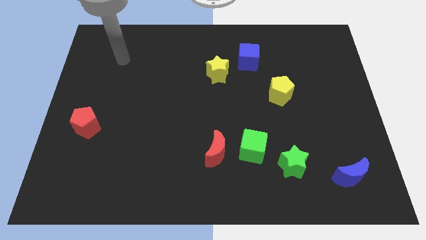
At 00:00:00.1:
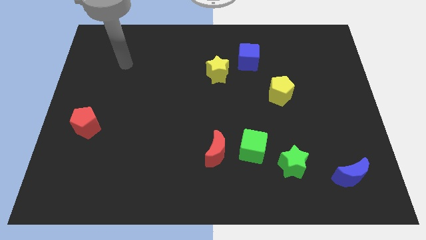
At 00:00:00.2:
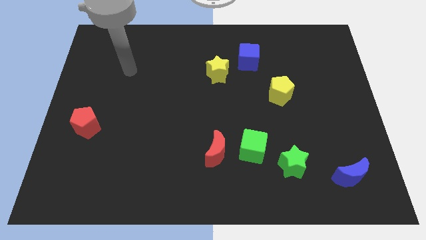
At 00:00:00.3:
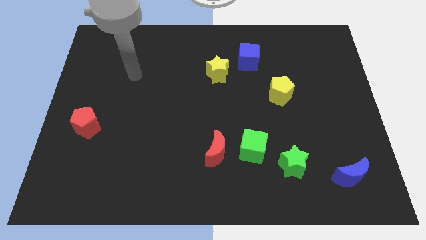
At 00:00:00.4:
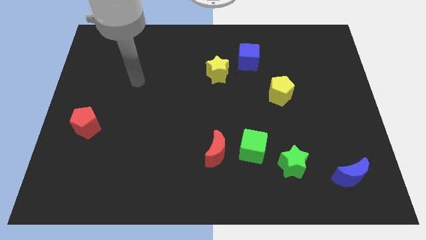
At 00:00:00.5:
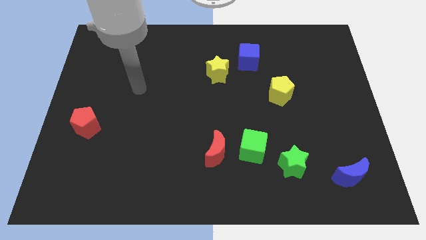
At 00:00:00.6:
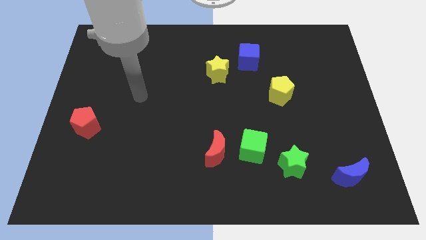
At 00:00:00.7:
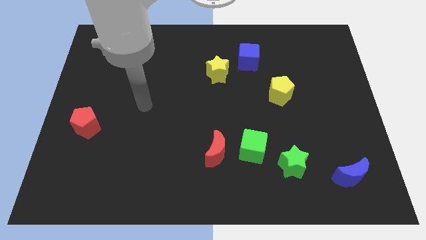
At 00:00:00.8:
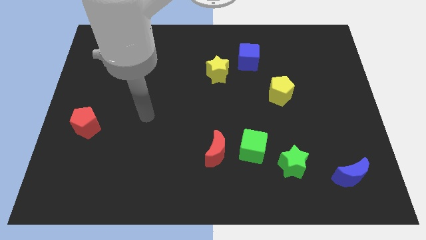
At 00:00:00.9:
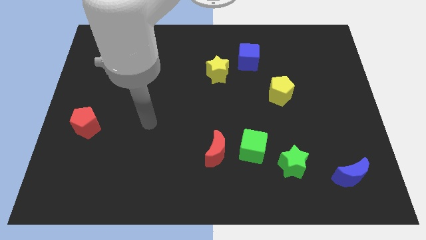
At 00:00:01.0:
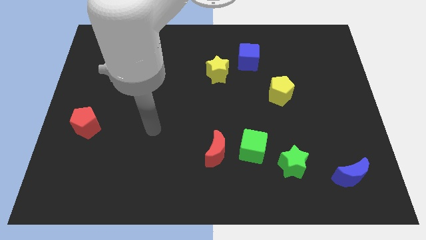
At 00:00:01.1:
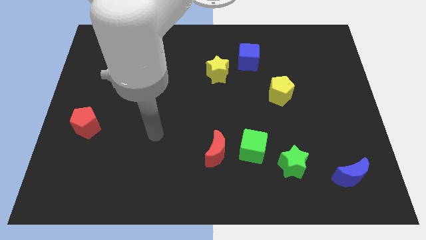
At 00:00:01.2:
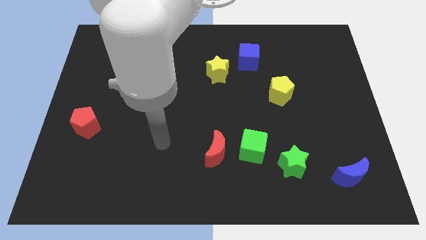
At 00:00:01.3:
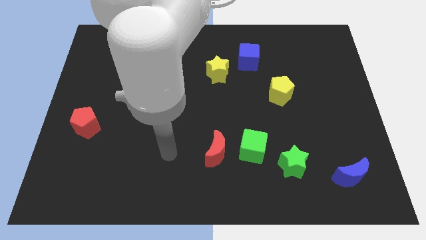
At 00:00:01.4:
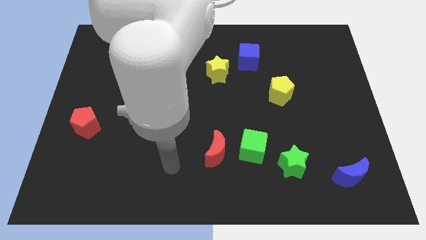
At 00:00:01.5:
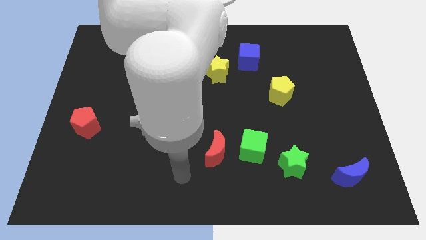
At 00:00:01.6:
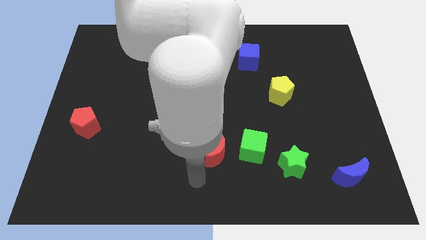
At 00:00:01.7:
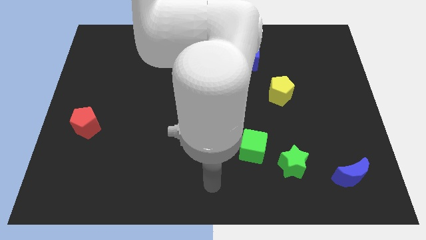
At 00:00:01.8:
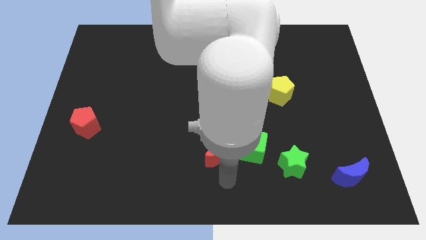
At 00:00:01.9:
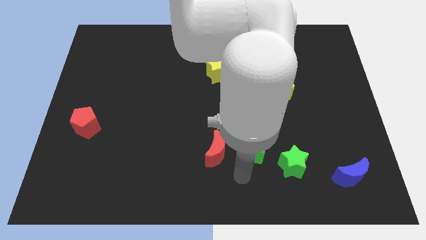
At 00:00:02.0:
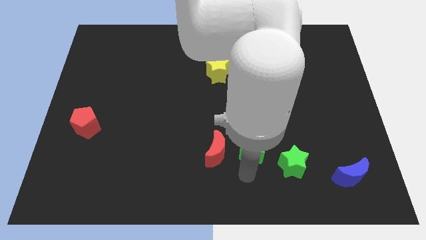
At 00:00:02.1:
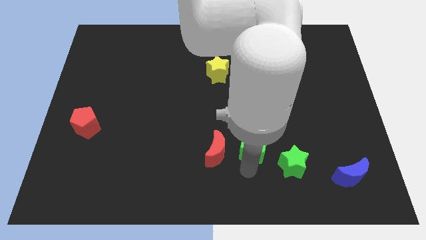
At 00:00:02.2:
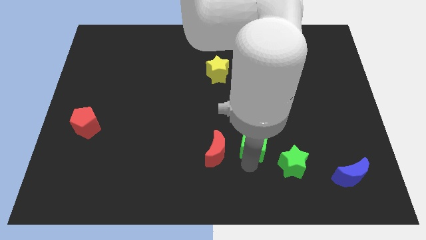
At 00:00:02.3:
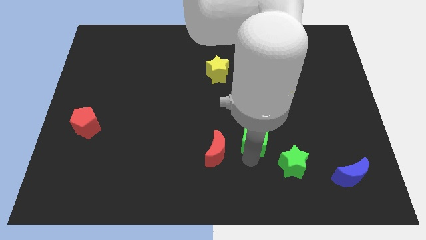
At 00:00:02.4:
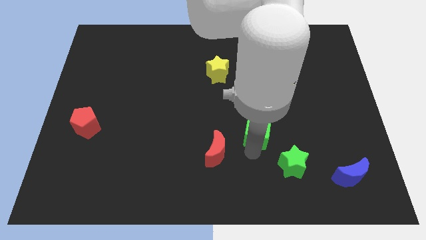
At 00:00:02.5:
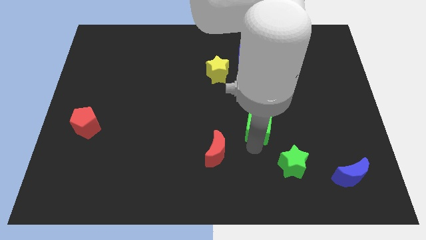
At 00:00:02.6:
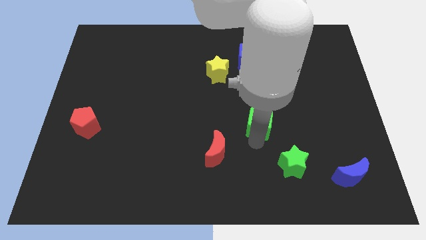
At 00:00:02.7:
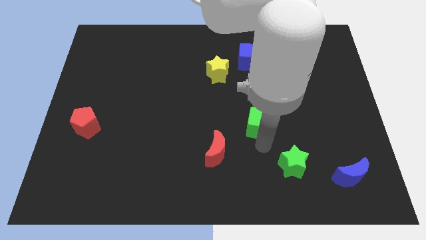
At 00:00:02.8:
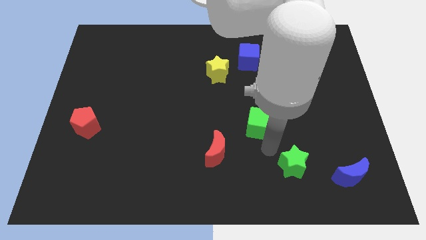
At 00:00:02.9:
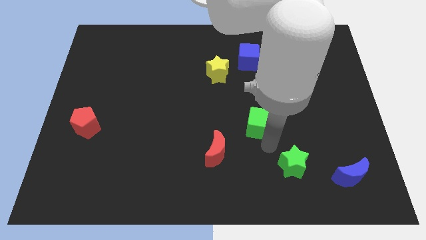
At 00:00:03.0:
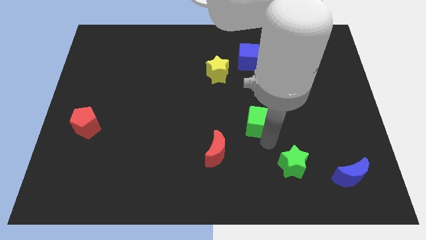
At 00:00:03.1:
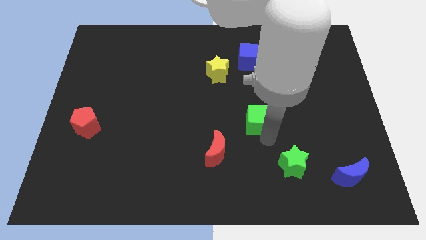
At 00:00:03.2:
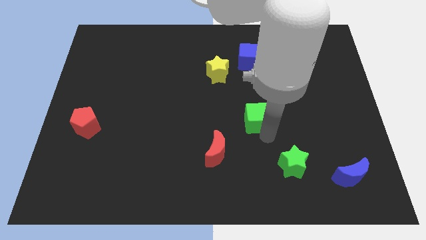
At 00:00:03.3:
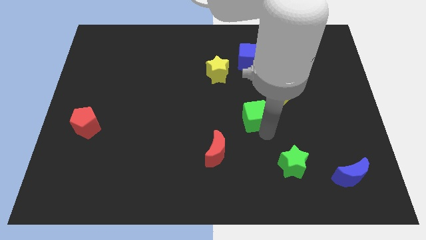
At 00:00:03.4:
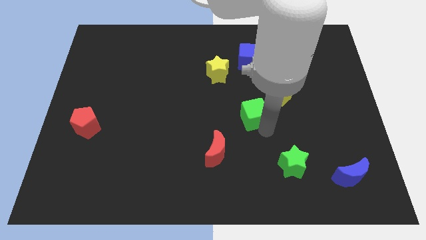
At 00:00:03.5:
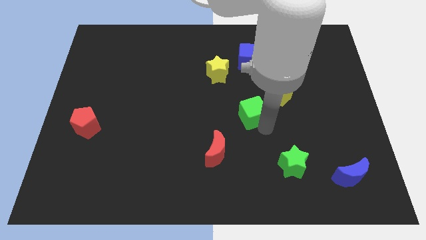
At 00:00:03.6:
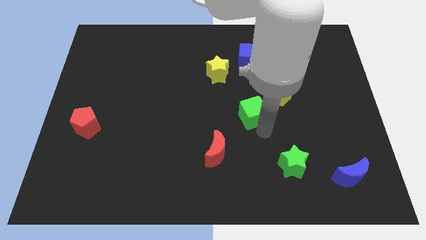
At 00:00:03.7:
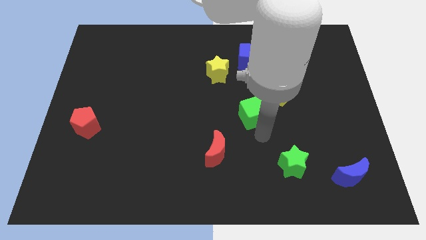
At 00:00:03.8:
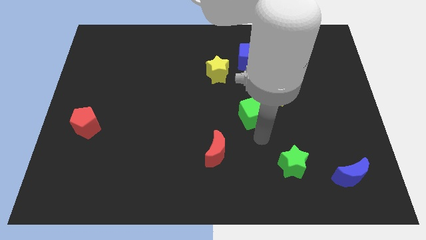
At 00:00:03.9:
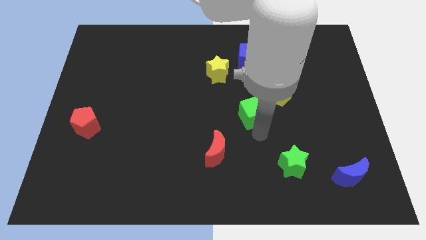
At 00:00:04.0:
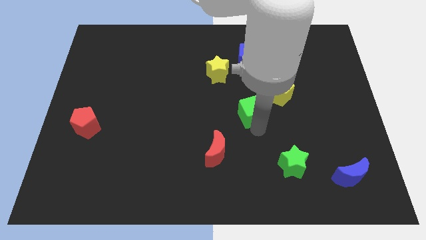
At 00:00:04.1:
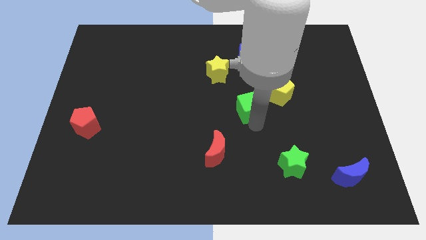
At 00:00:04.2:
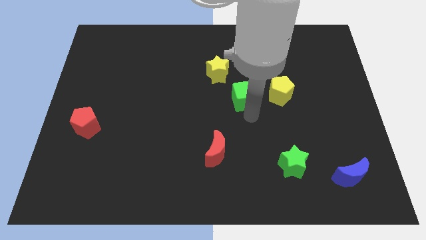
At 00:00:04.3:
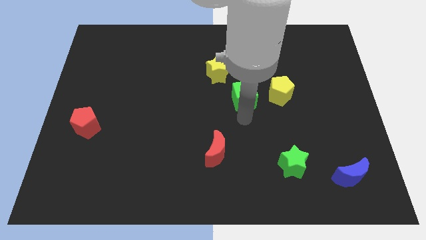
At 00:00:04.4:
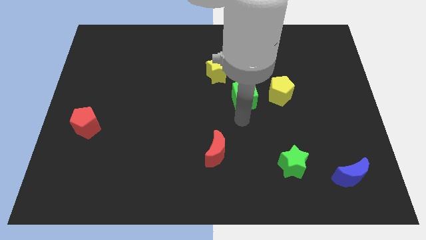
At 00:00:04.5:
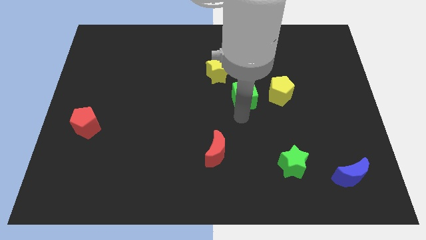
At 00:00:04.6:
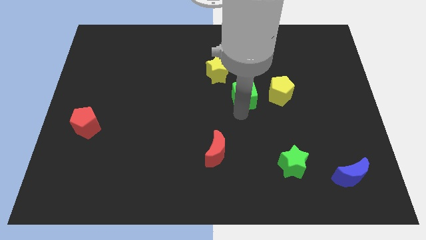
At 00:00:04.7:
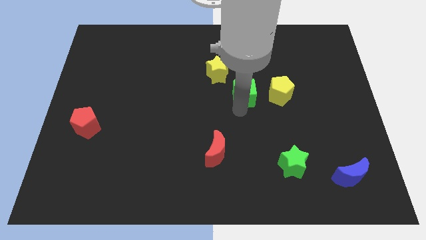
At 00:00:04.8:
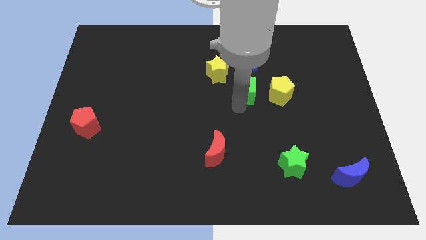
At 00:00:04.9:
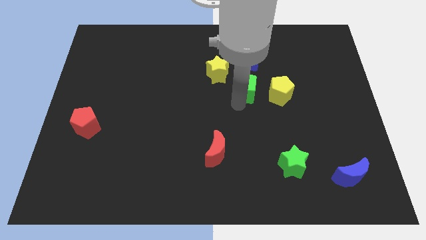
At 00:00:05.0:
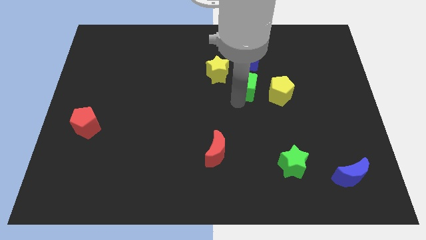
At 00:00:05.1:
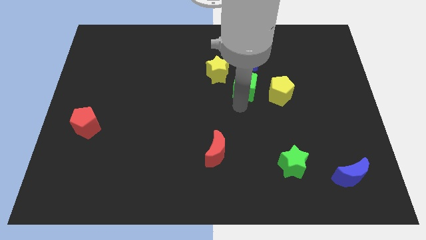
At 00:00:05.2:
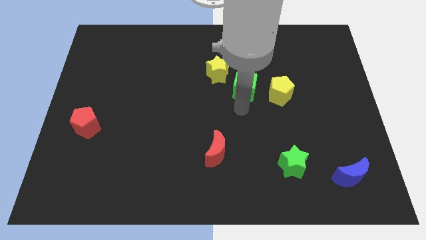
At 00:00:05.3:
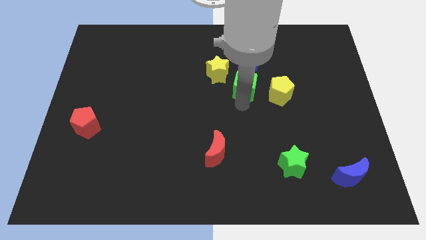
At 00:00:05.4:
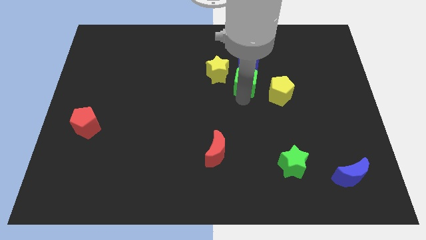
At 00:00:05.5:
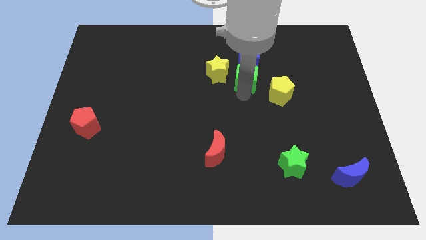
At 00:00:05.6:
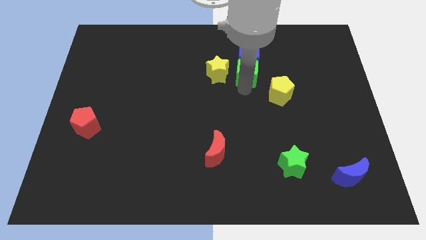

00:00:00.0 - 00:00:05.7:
move the green cube to the blue cube

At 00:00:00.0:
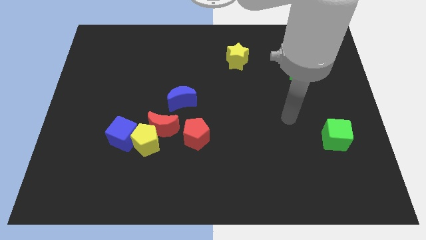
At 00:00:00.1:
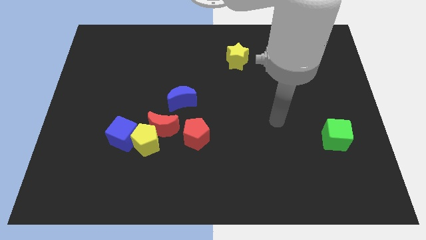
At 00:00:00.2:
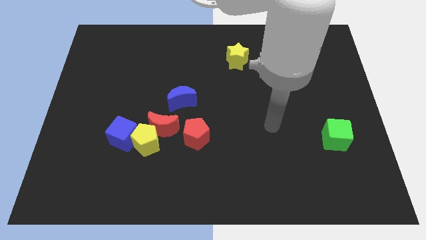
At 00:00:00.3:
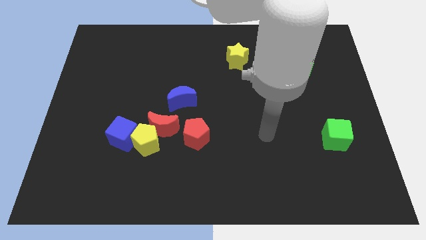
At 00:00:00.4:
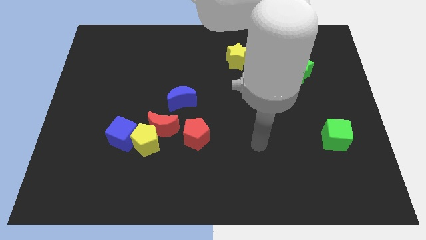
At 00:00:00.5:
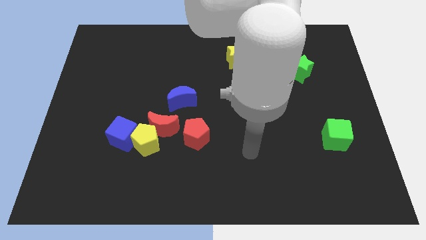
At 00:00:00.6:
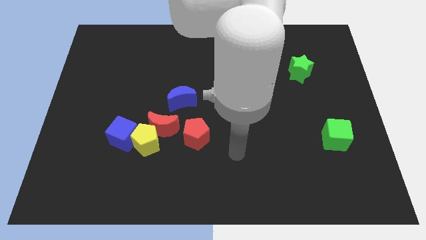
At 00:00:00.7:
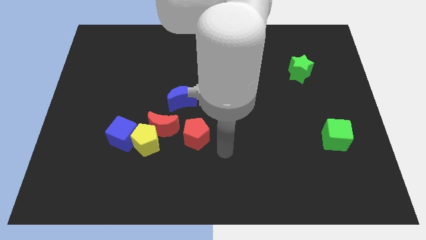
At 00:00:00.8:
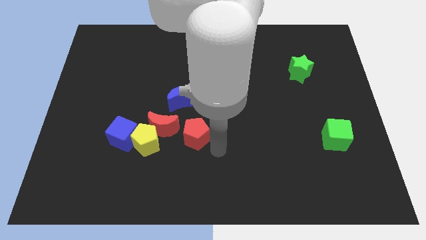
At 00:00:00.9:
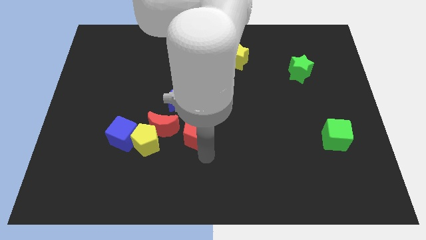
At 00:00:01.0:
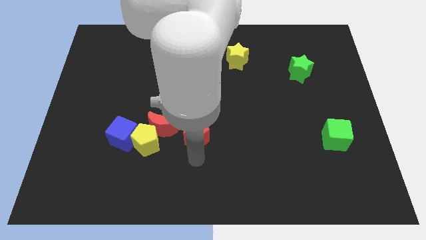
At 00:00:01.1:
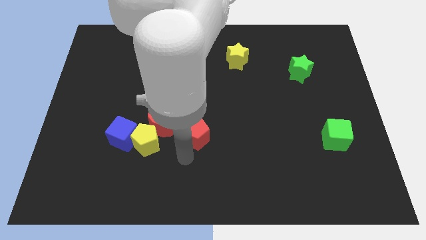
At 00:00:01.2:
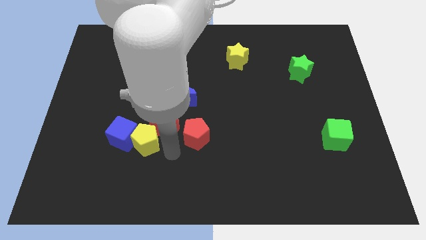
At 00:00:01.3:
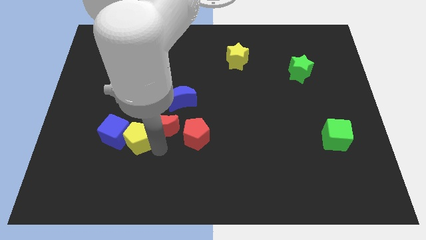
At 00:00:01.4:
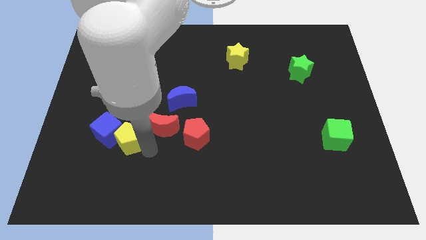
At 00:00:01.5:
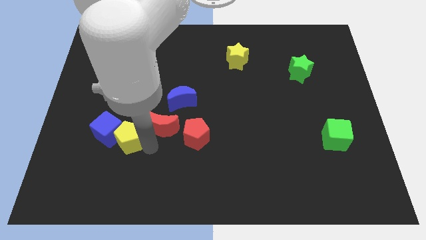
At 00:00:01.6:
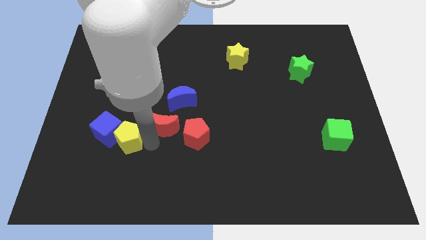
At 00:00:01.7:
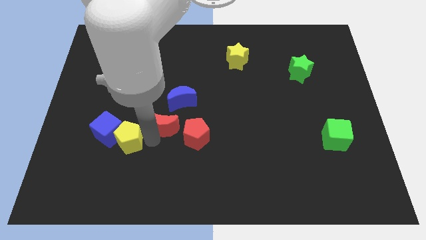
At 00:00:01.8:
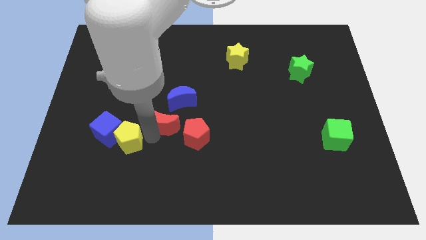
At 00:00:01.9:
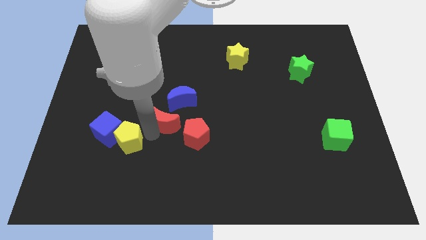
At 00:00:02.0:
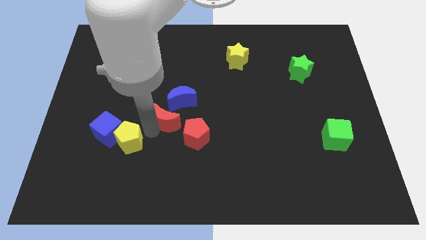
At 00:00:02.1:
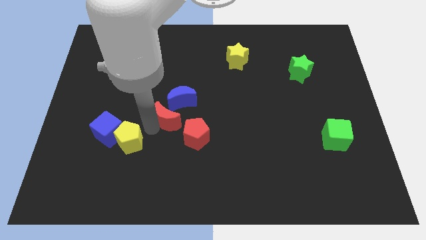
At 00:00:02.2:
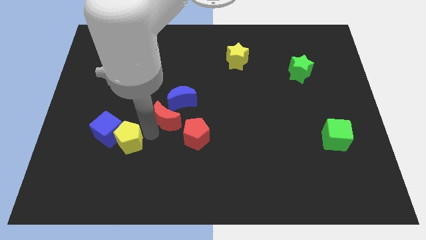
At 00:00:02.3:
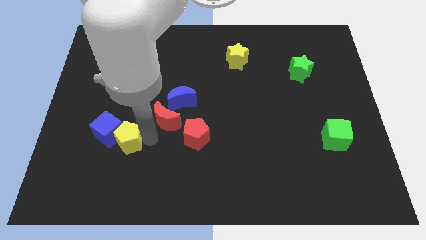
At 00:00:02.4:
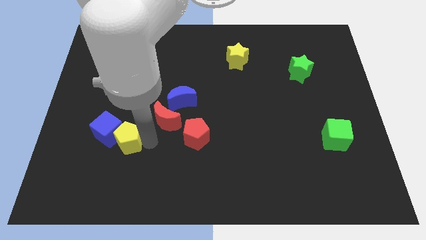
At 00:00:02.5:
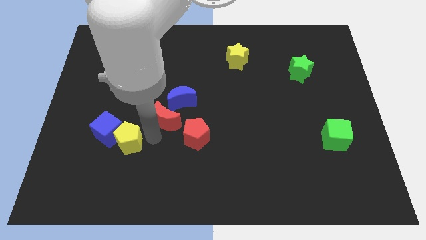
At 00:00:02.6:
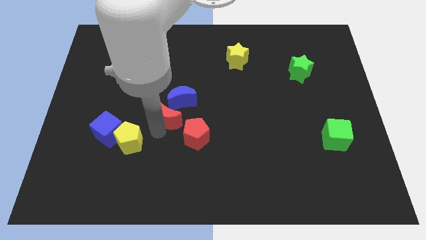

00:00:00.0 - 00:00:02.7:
slide the red moon to the blue moon
